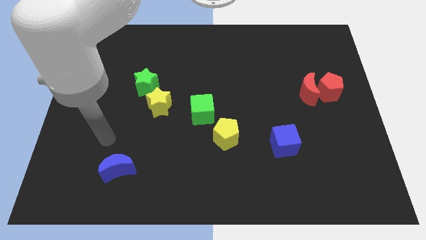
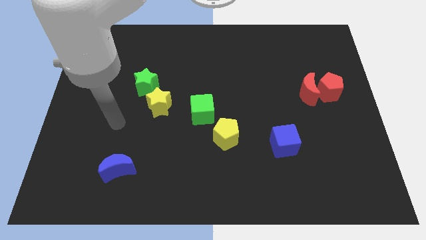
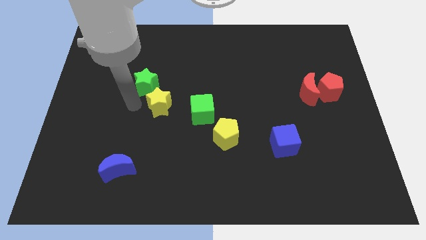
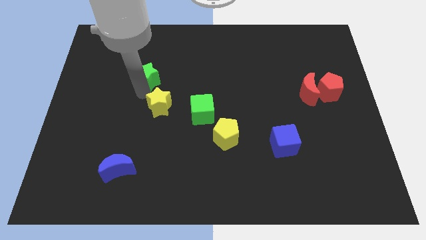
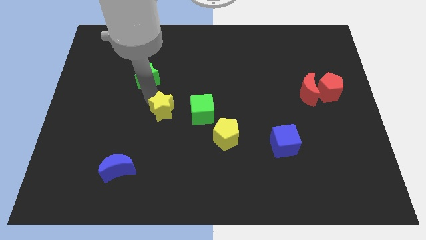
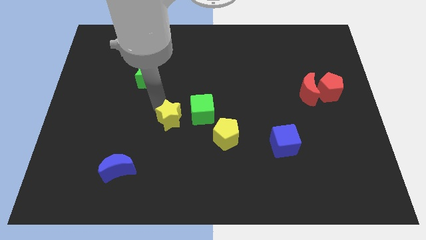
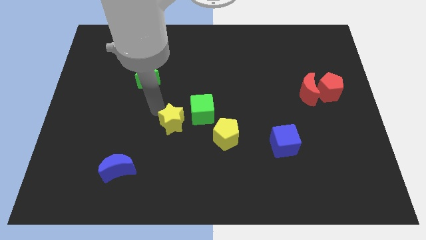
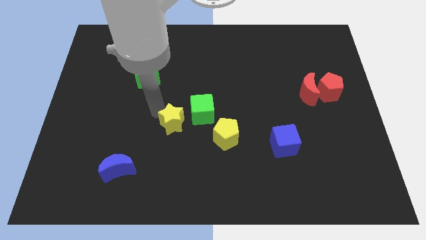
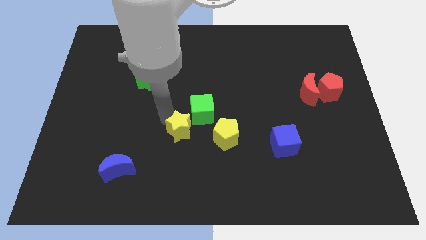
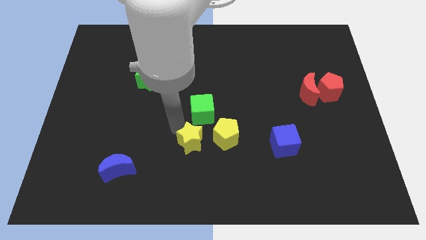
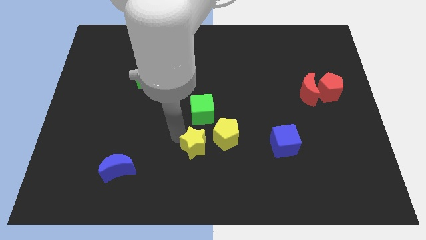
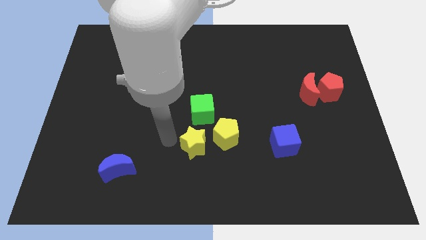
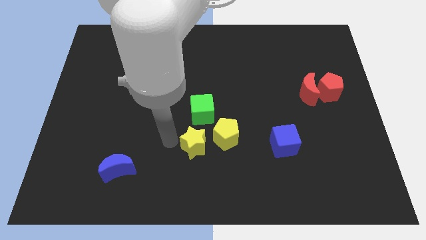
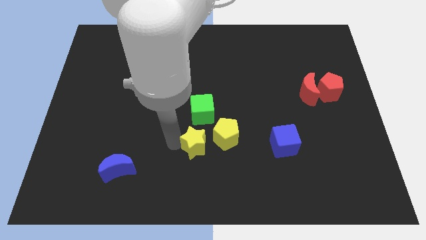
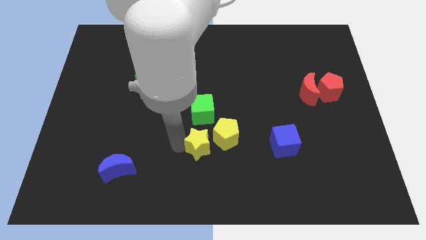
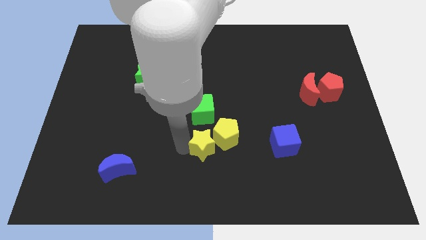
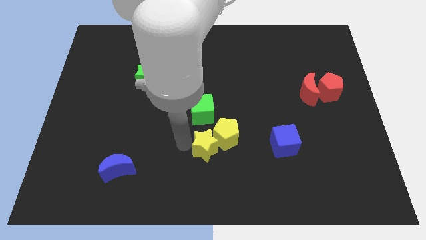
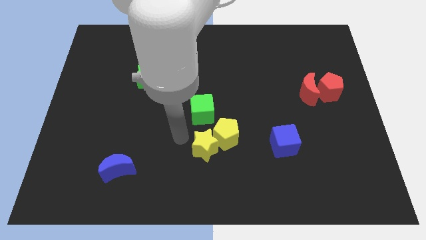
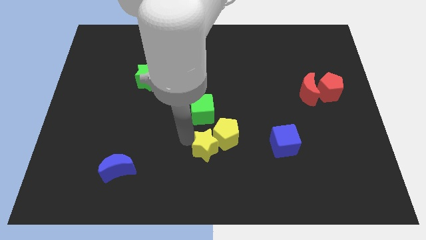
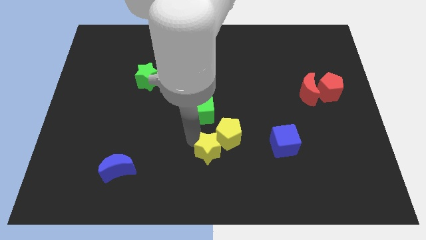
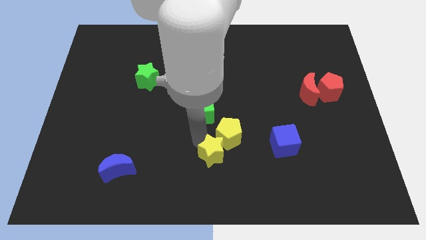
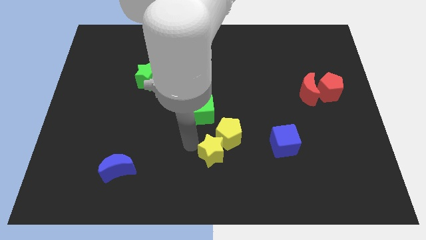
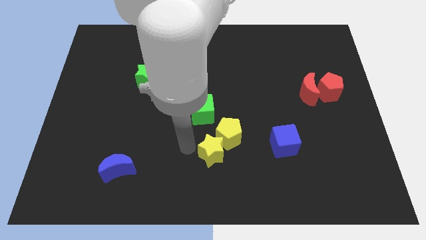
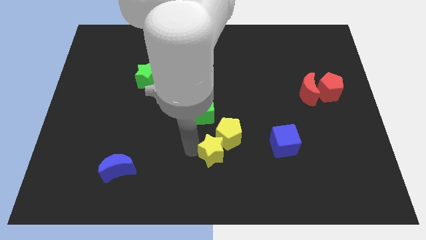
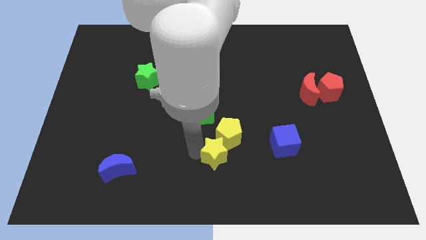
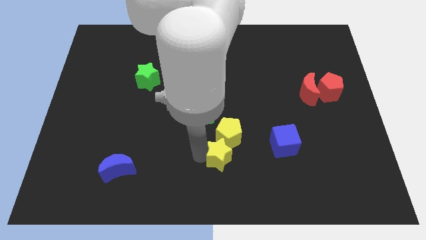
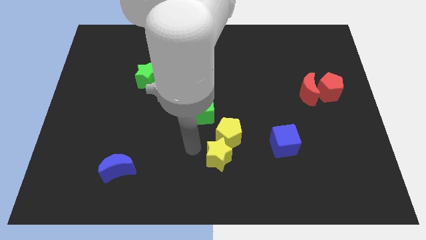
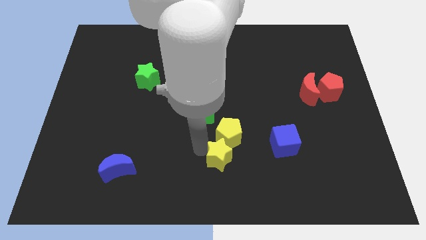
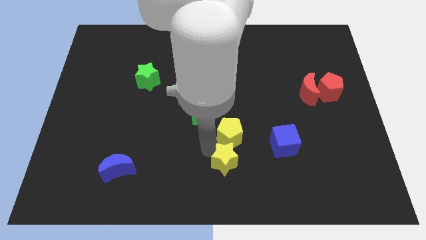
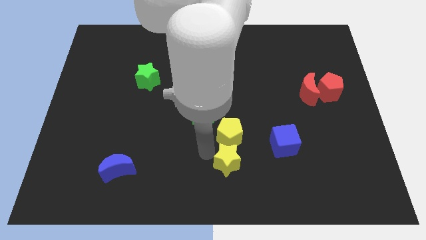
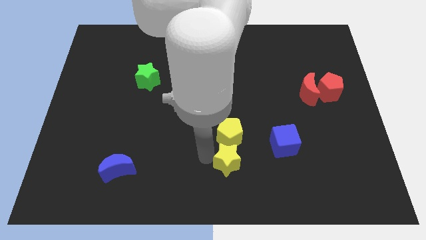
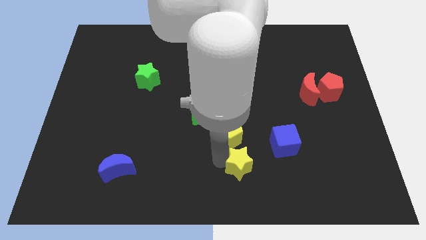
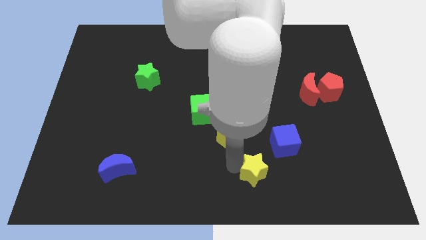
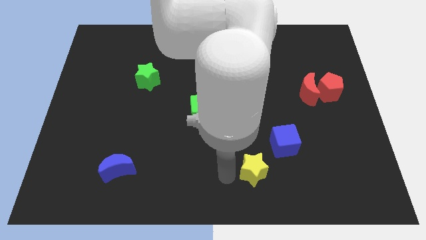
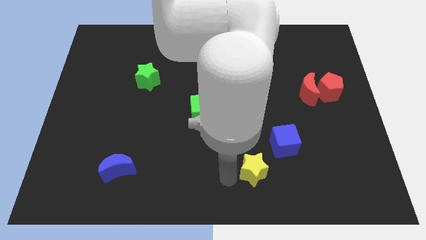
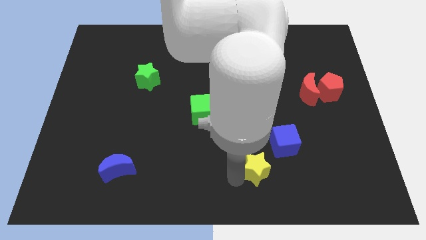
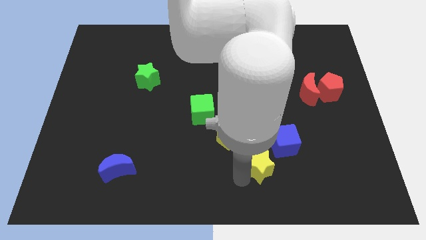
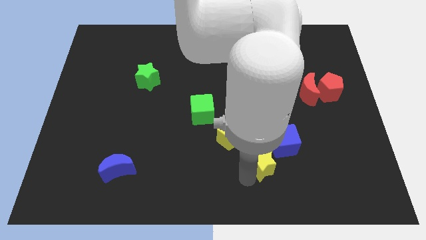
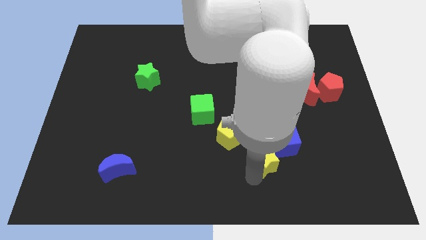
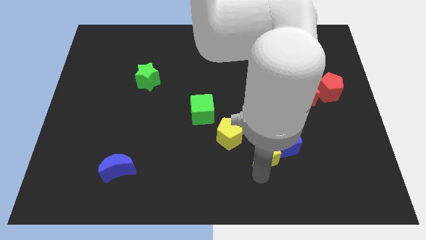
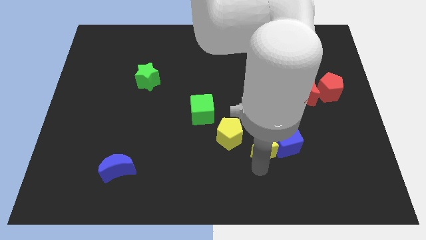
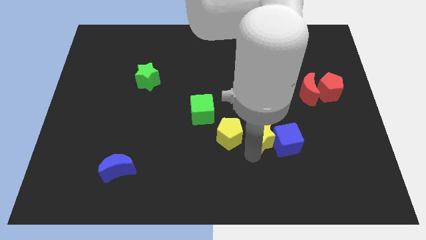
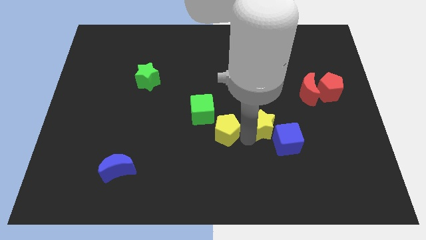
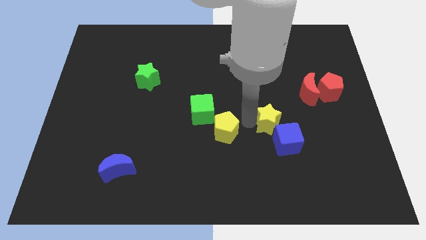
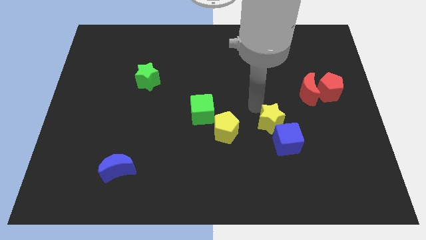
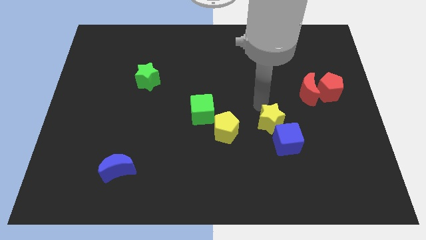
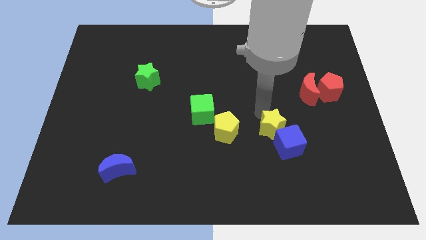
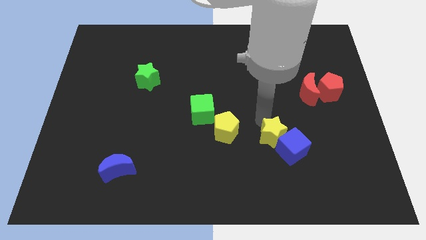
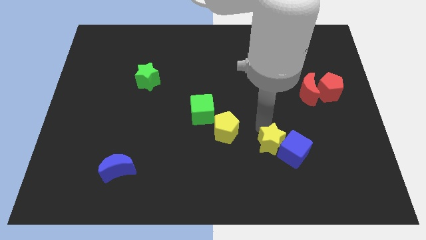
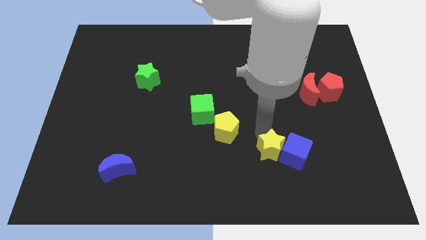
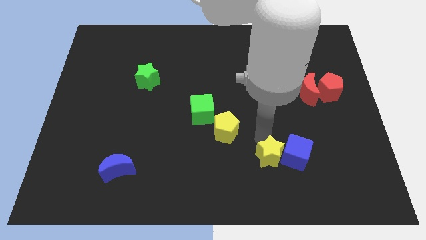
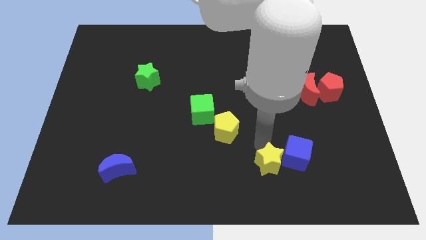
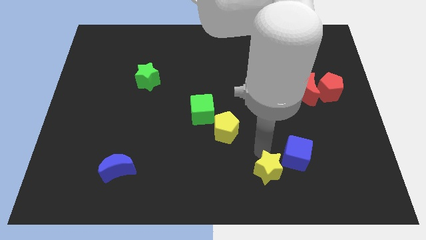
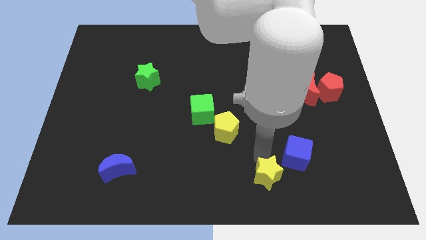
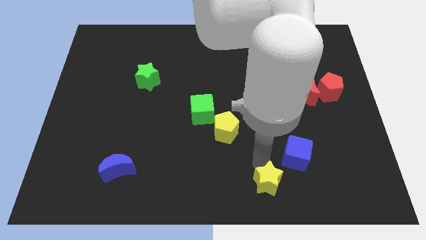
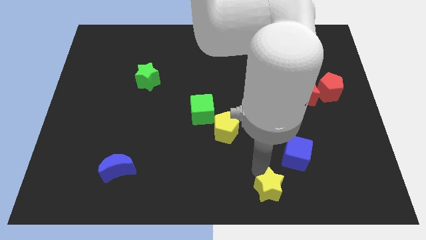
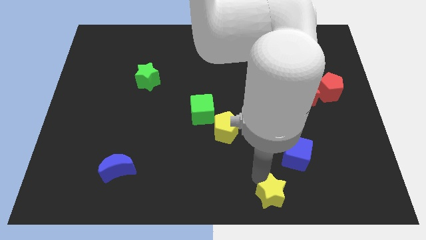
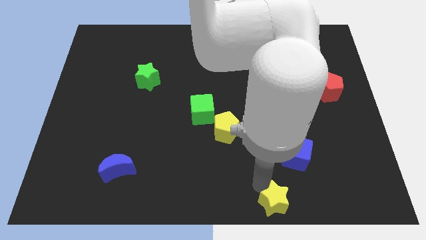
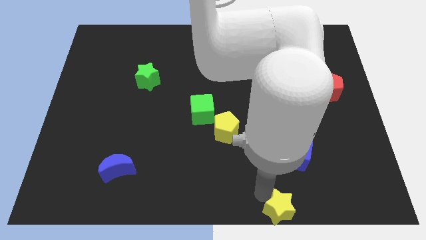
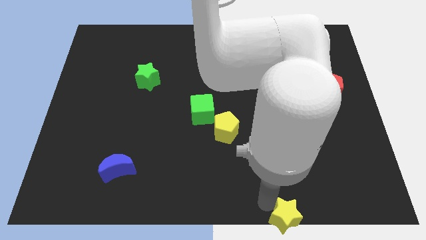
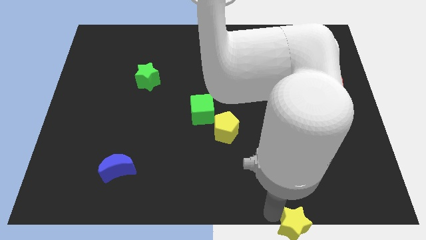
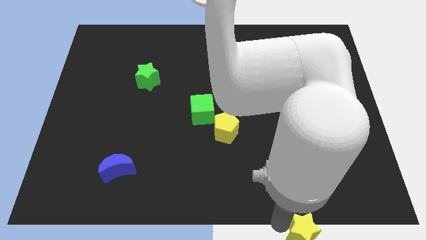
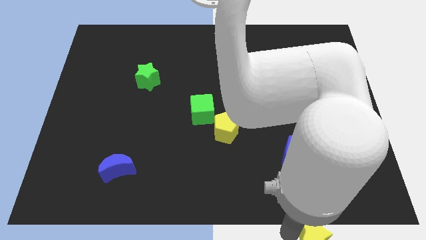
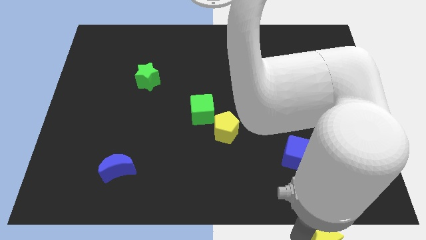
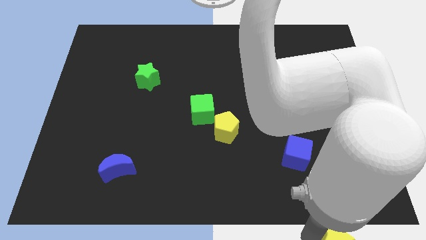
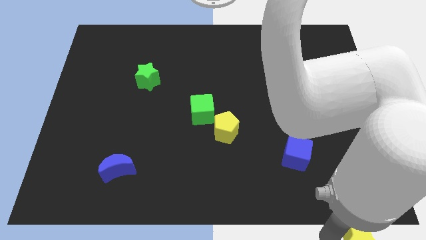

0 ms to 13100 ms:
move the yellow star to the lower right corner
